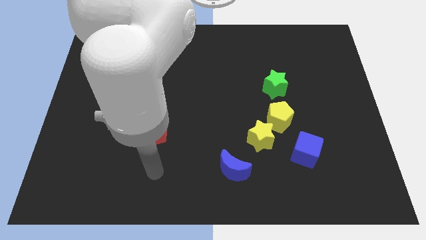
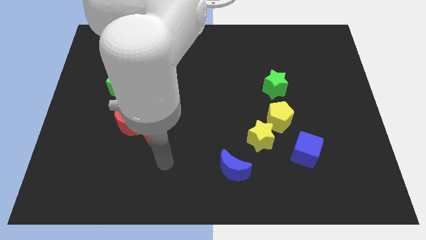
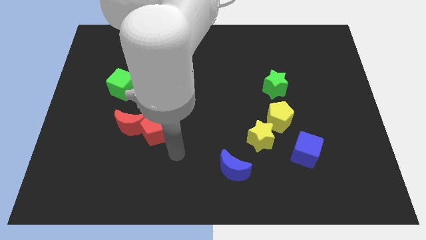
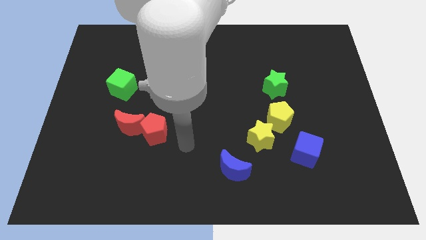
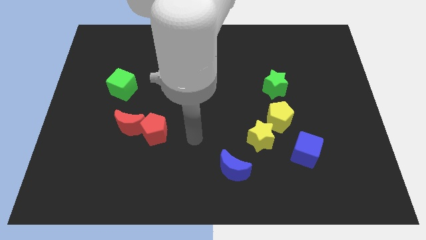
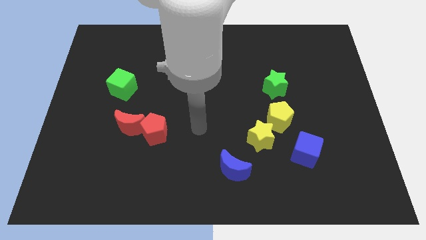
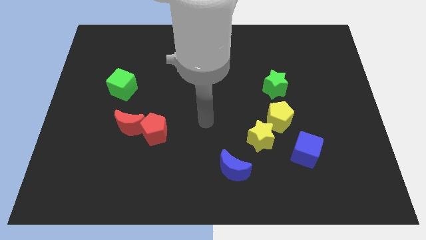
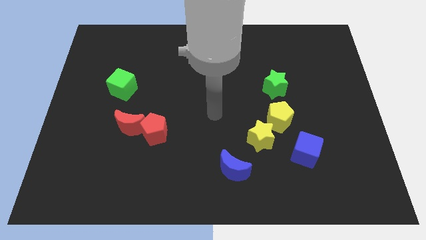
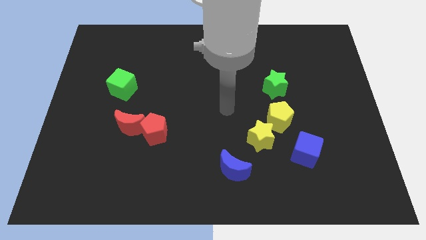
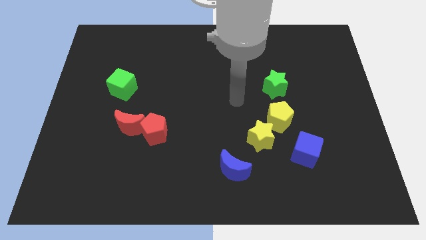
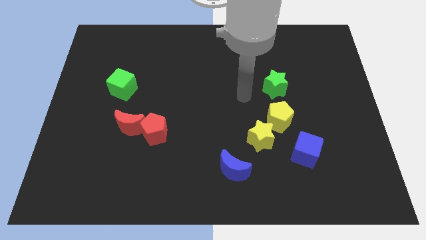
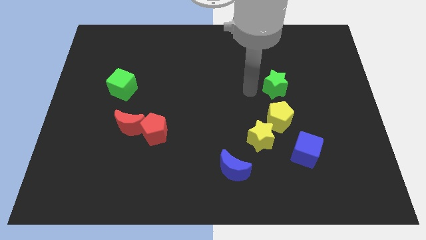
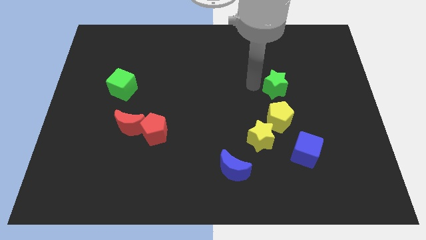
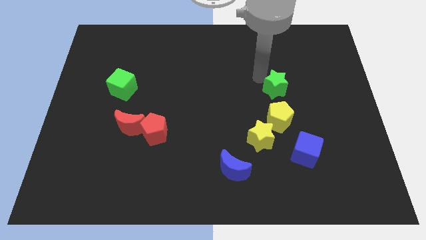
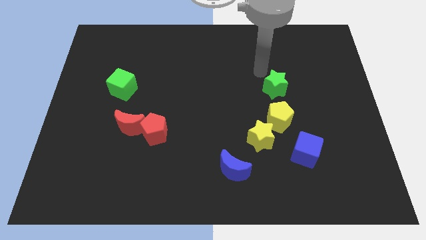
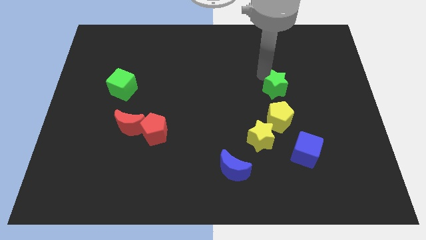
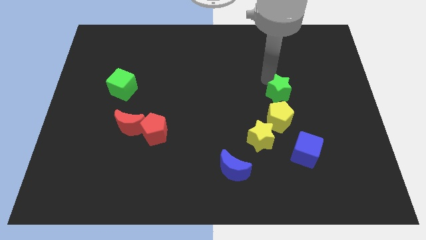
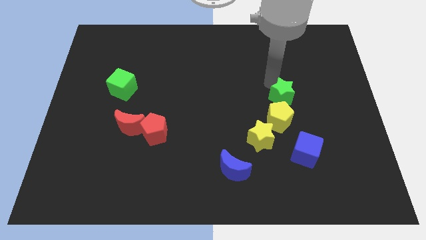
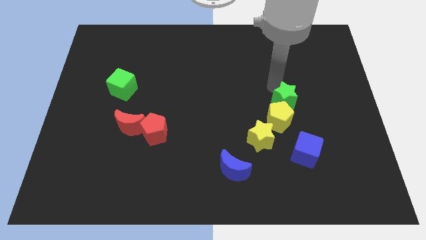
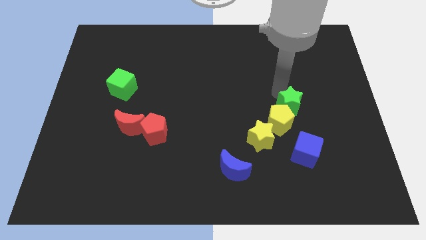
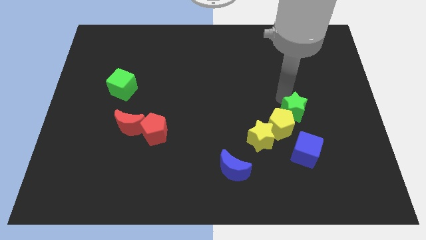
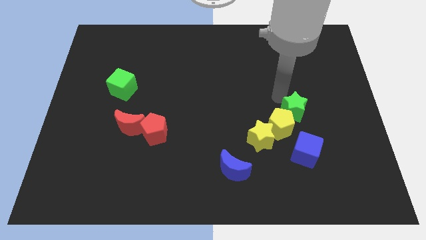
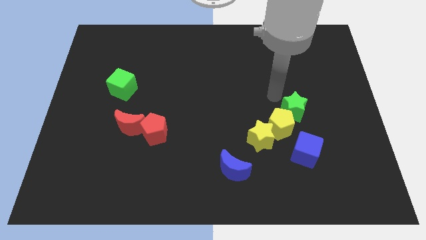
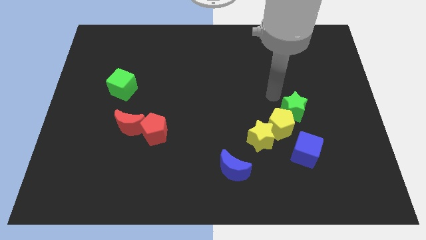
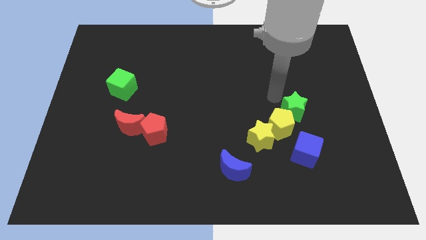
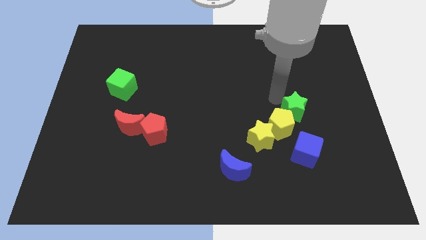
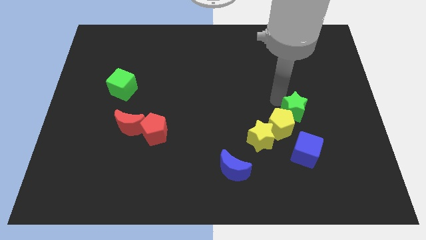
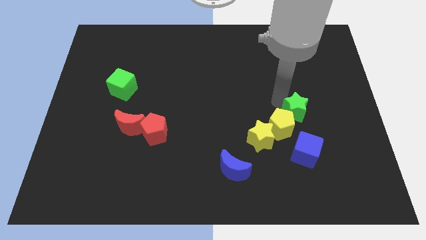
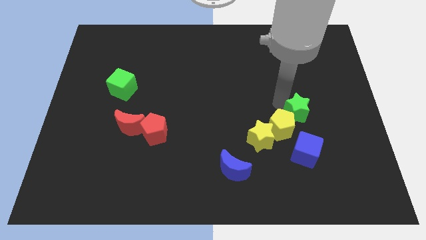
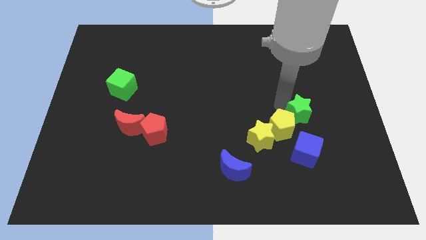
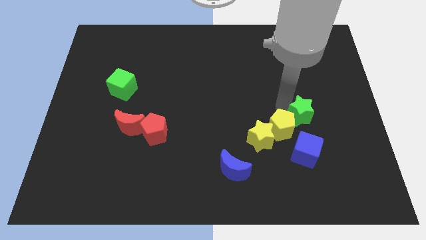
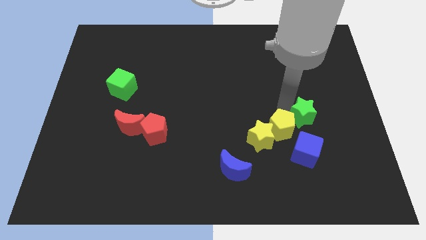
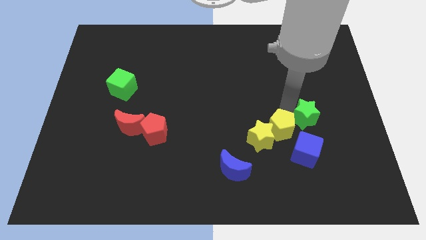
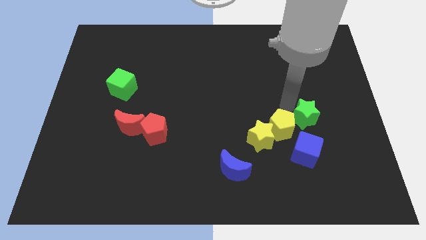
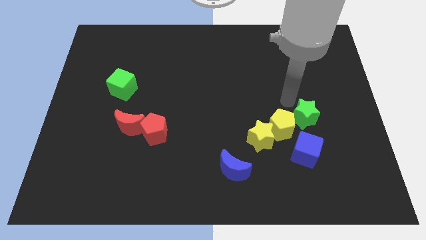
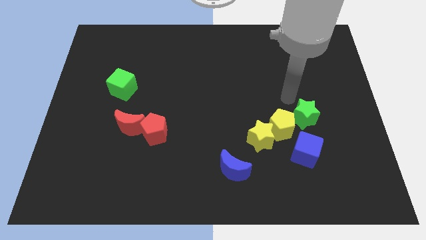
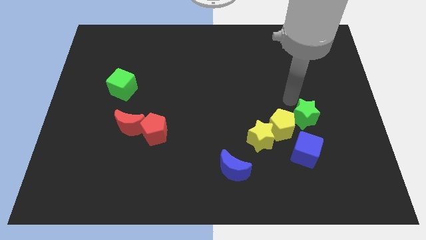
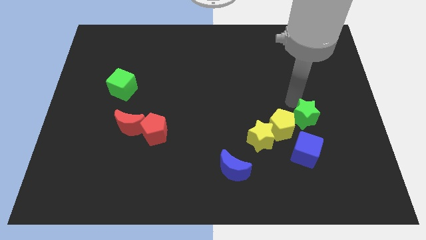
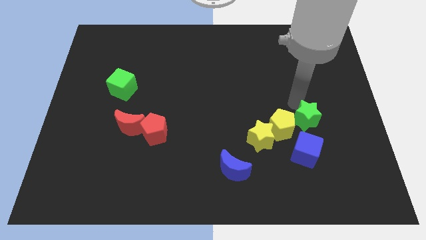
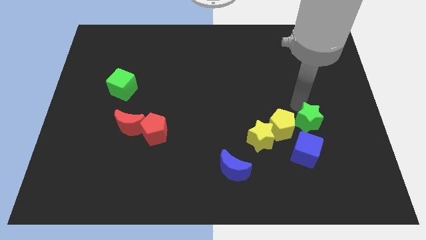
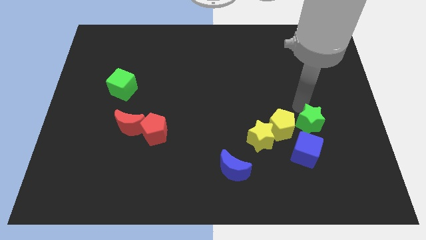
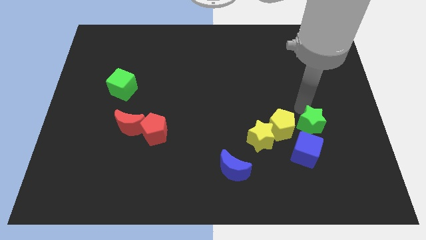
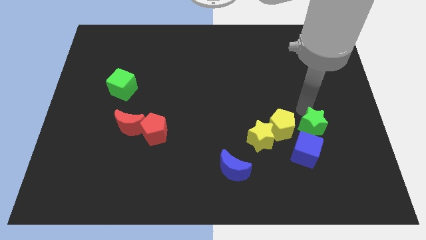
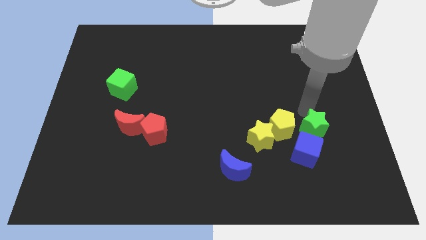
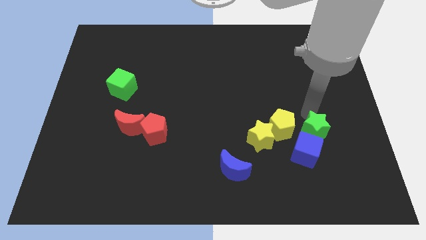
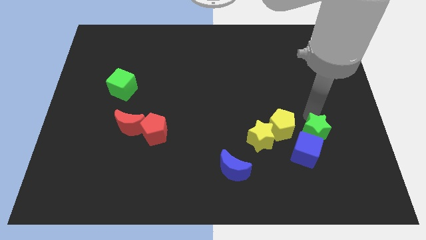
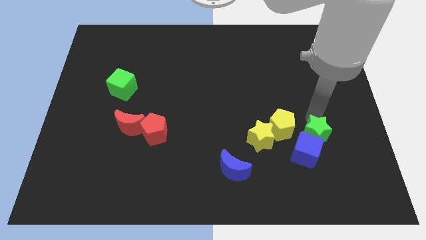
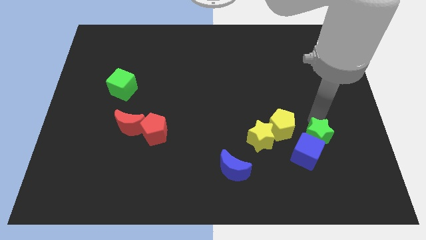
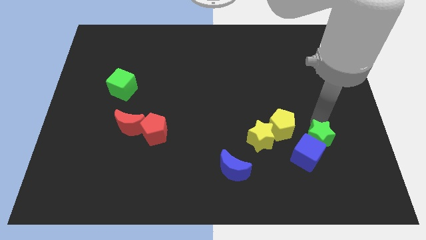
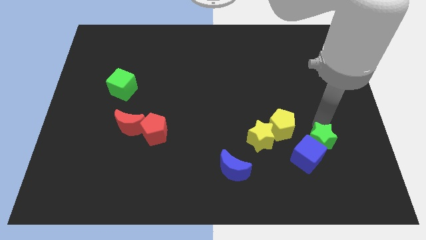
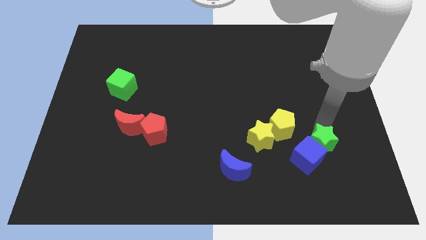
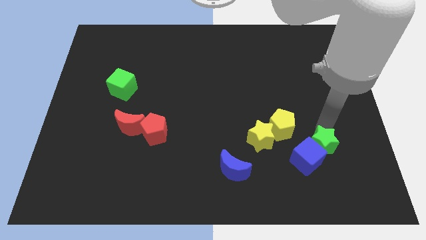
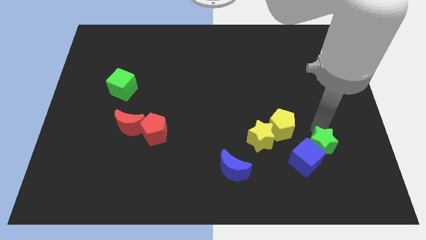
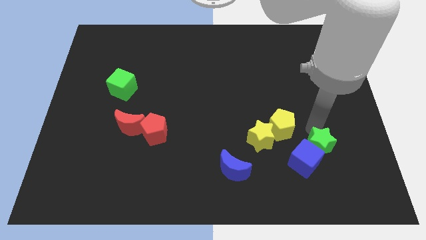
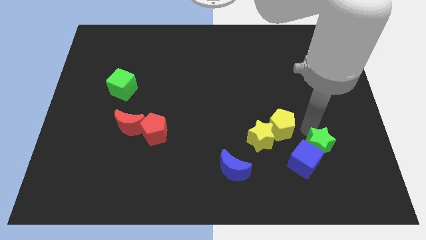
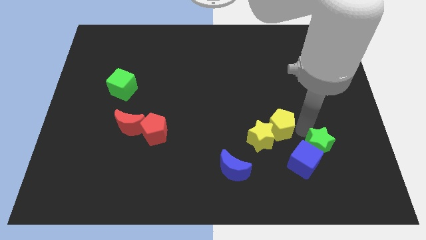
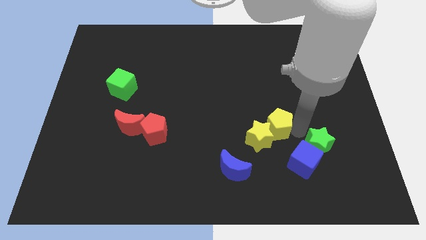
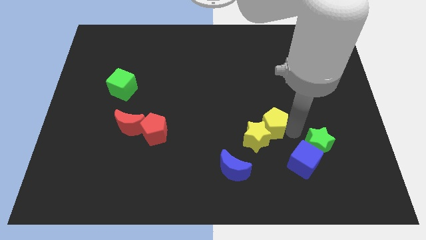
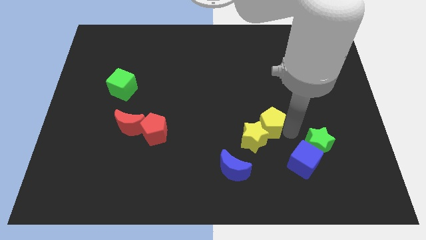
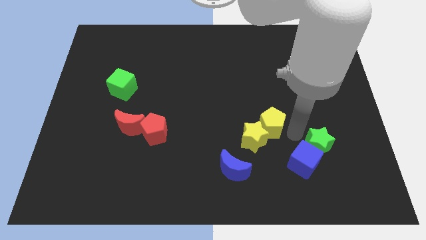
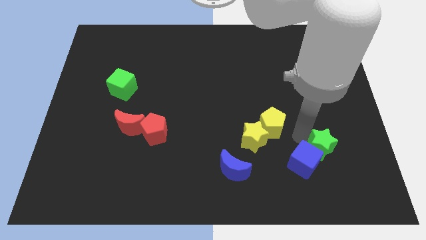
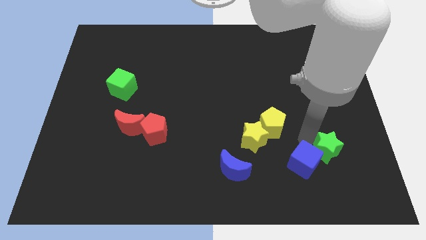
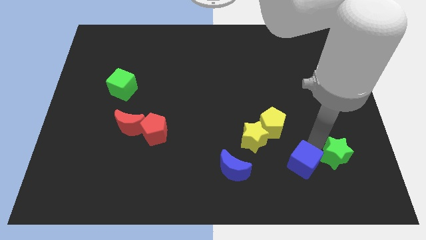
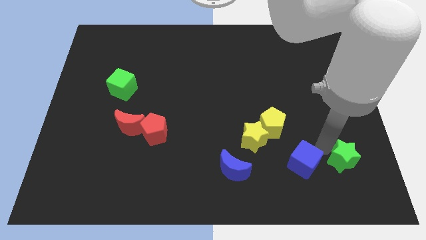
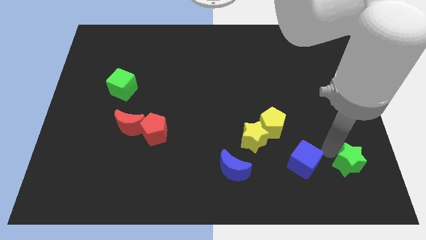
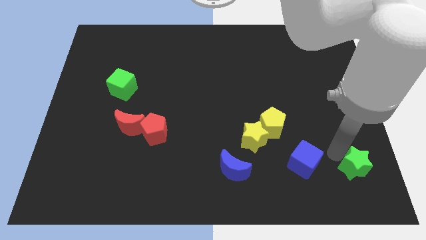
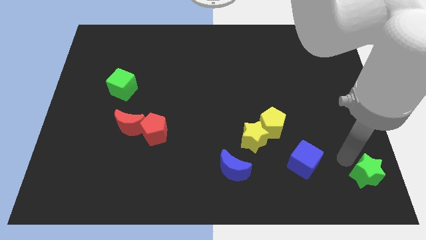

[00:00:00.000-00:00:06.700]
move the green star to the bottom right

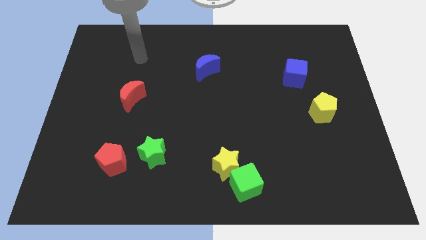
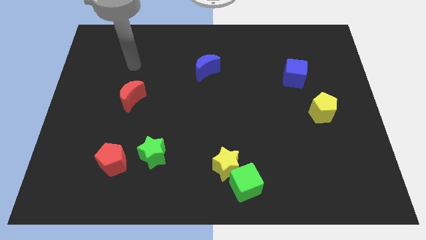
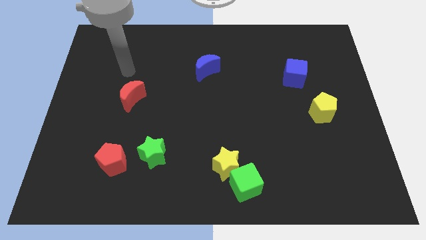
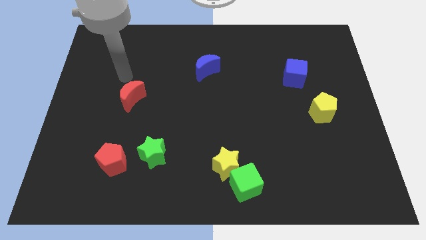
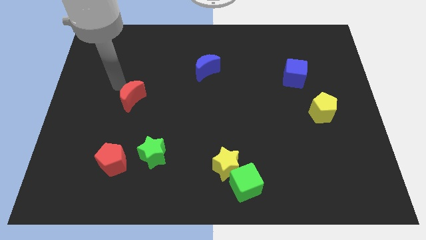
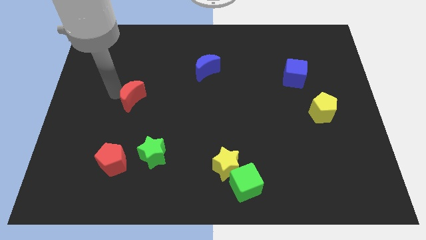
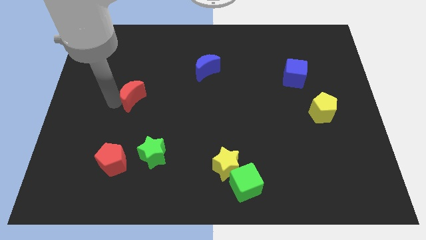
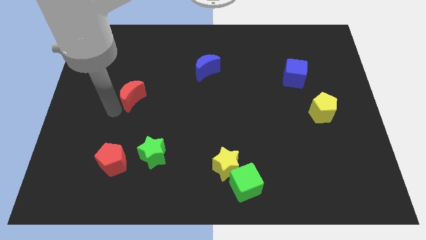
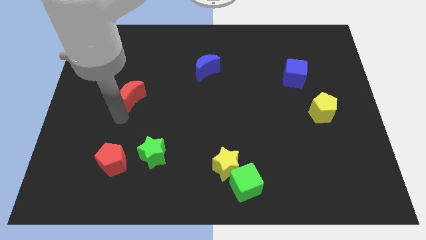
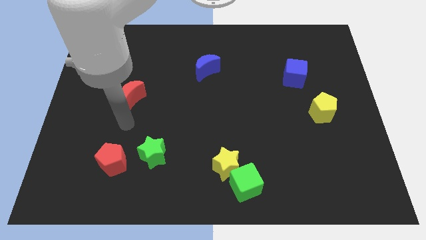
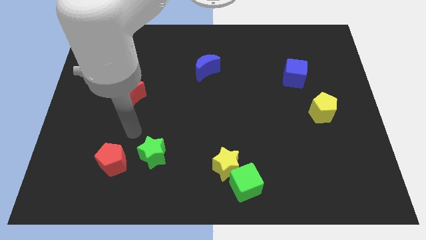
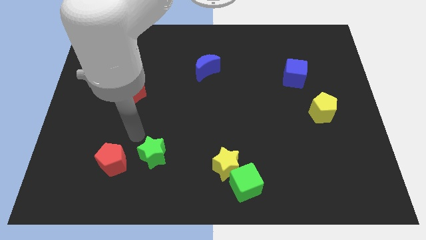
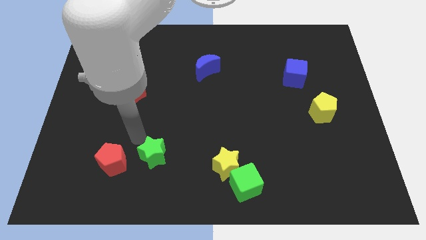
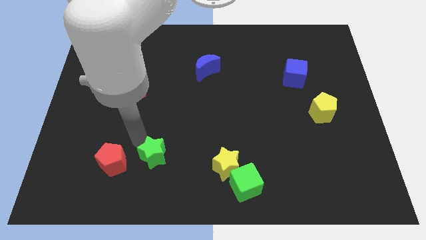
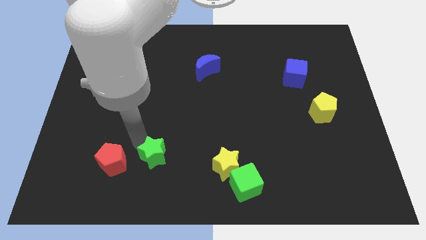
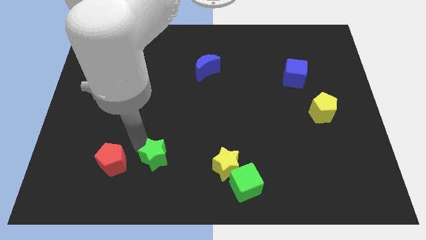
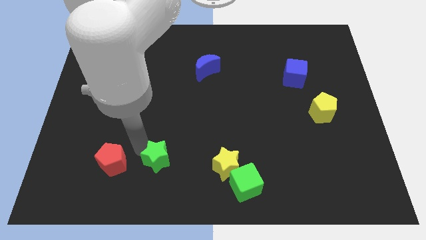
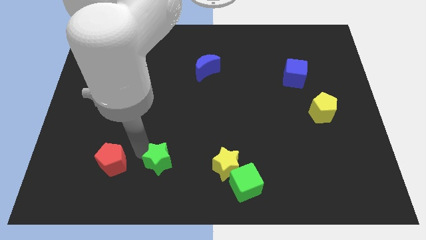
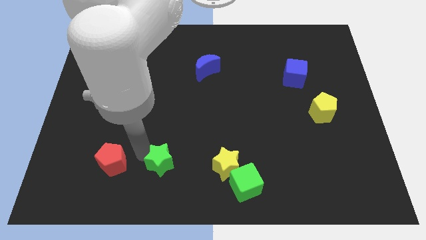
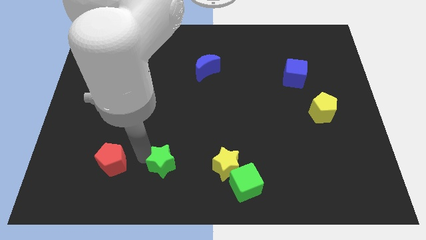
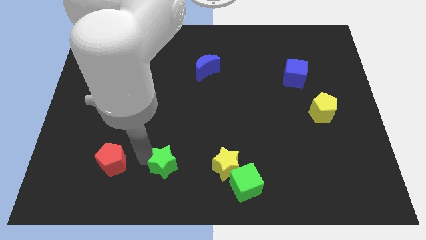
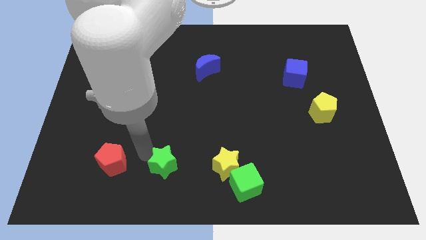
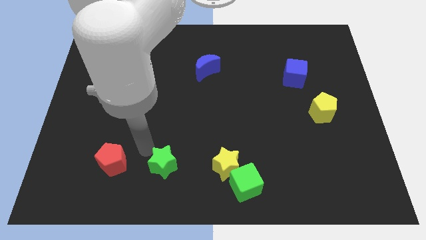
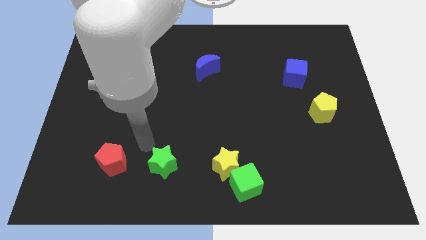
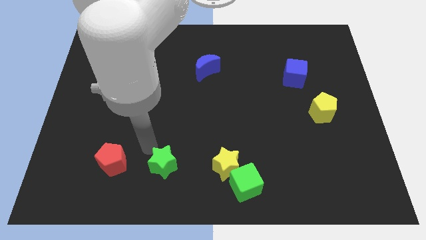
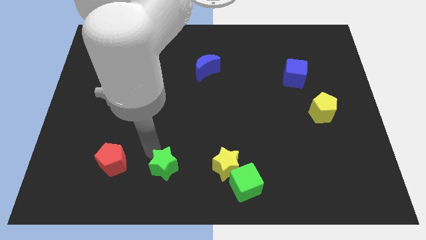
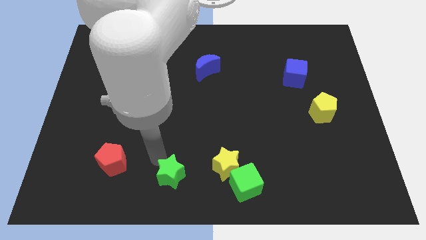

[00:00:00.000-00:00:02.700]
slide the green star to the bottom
